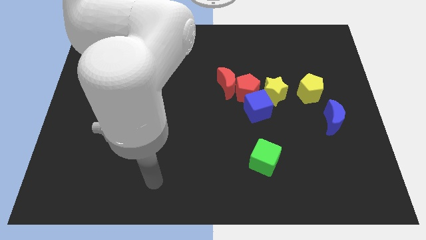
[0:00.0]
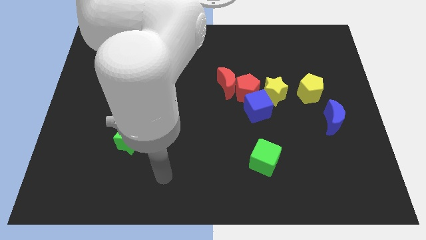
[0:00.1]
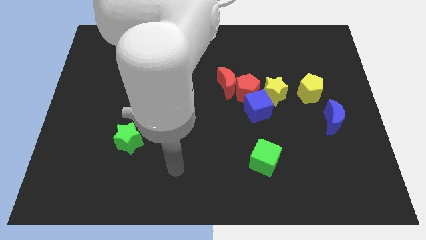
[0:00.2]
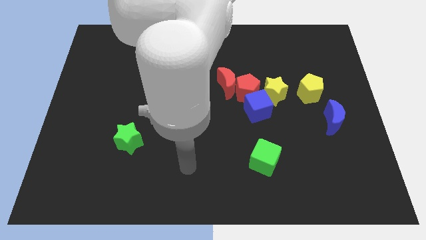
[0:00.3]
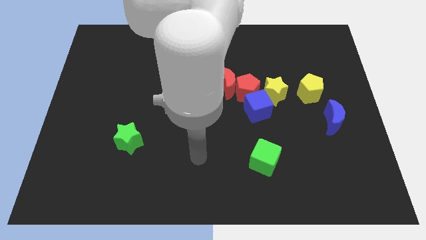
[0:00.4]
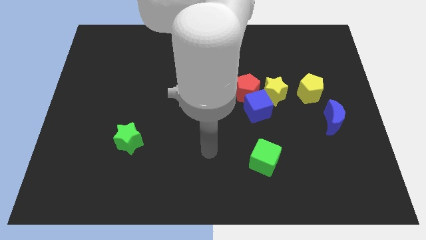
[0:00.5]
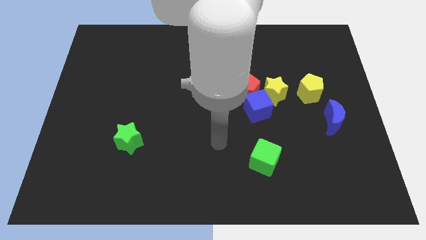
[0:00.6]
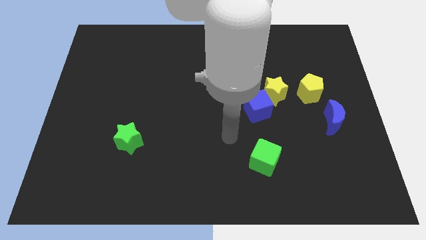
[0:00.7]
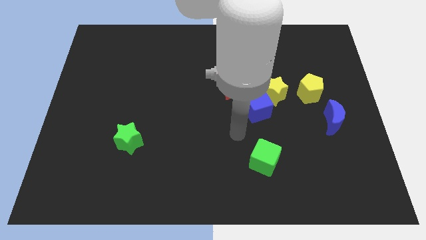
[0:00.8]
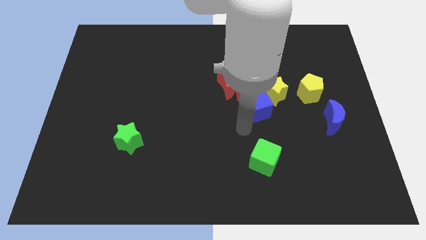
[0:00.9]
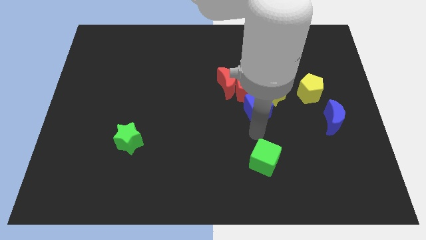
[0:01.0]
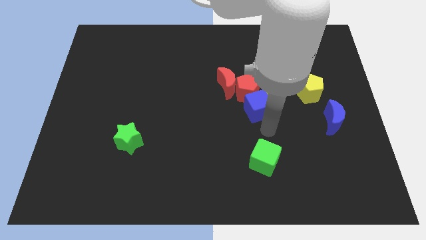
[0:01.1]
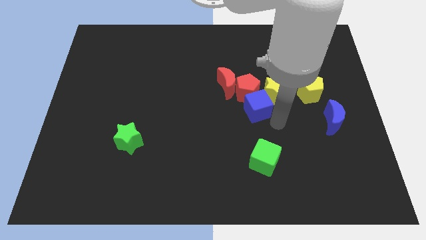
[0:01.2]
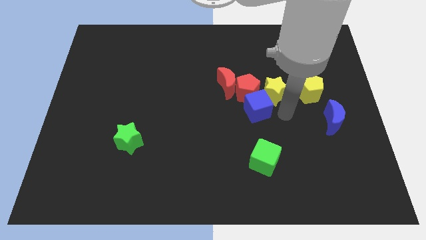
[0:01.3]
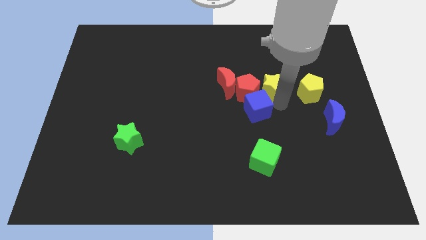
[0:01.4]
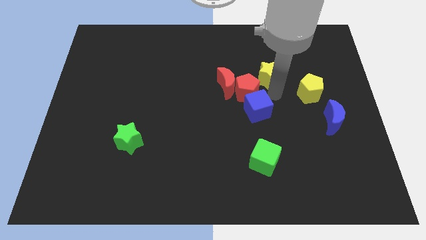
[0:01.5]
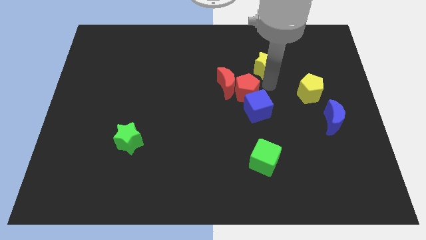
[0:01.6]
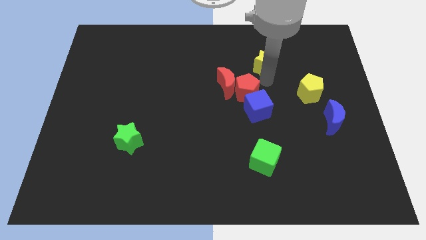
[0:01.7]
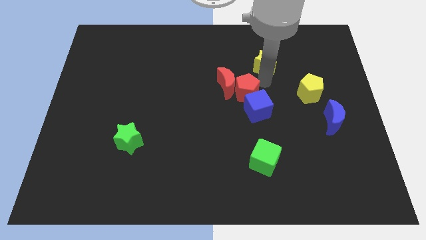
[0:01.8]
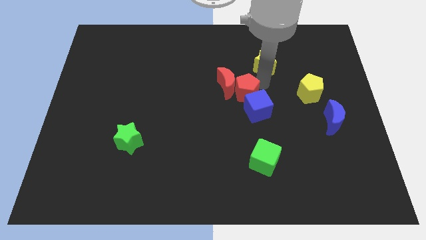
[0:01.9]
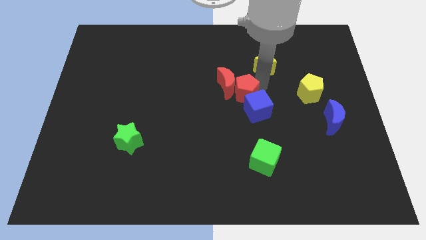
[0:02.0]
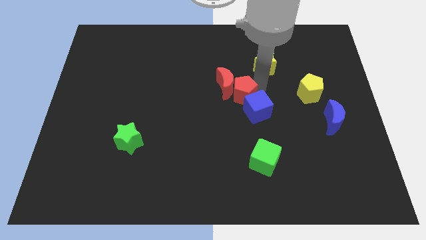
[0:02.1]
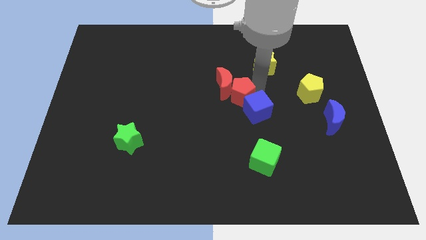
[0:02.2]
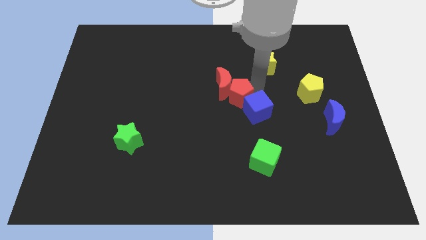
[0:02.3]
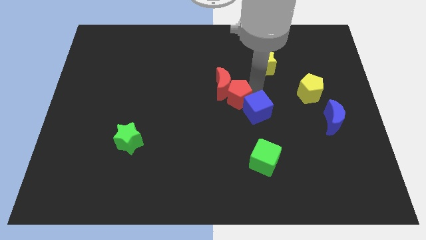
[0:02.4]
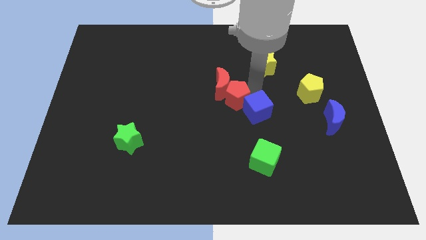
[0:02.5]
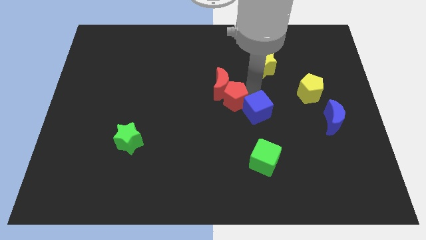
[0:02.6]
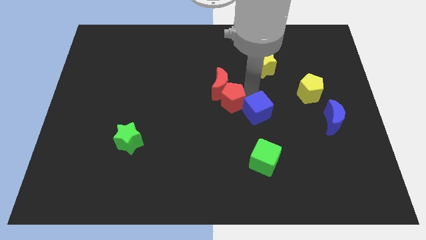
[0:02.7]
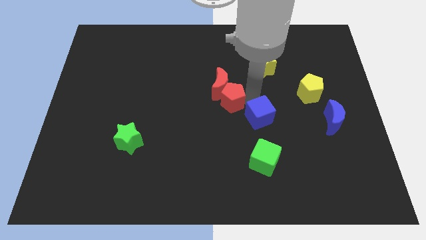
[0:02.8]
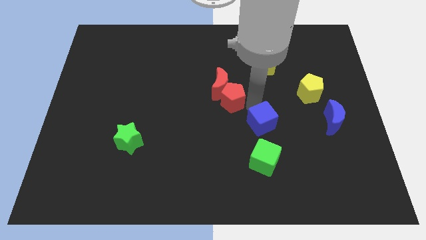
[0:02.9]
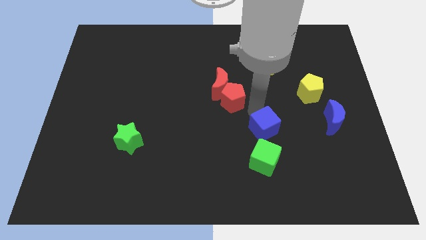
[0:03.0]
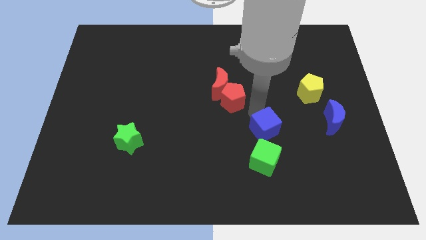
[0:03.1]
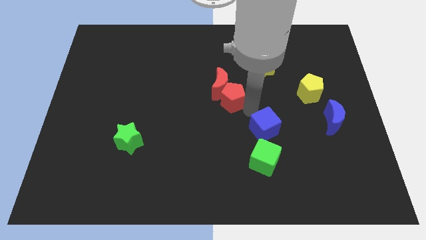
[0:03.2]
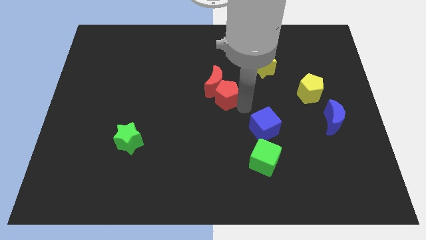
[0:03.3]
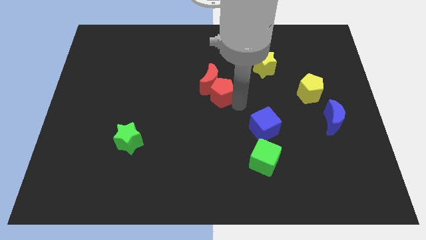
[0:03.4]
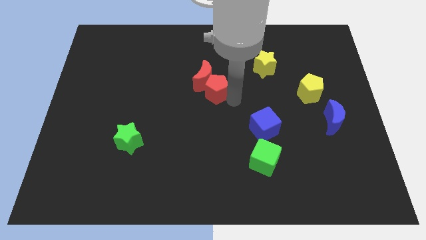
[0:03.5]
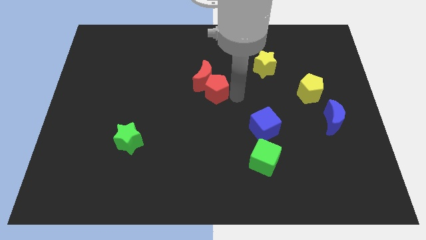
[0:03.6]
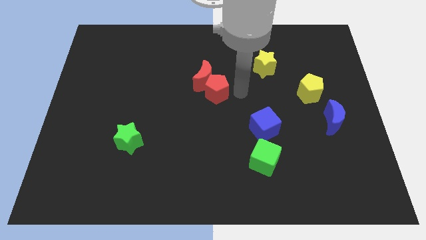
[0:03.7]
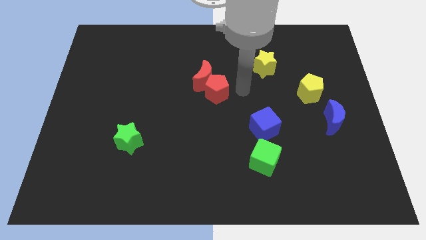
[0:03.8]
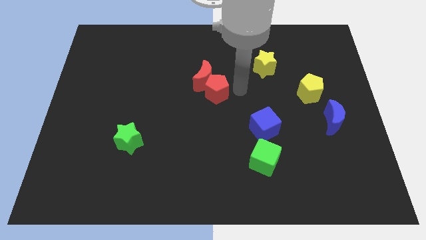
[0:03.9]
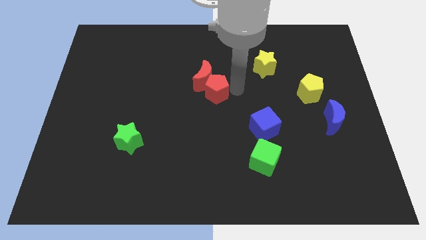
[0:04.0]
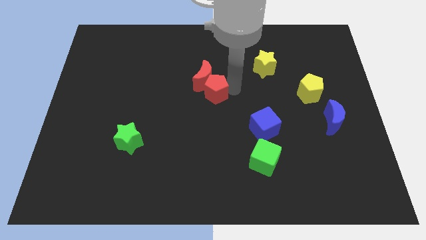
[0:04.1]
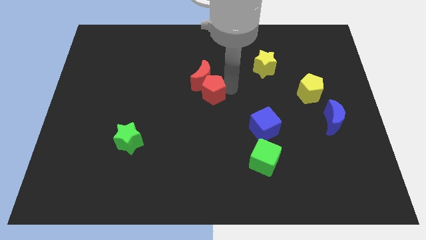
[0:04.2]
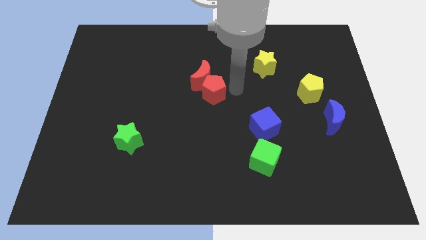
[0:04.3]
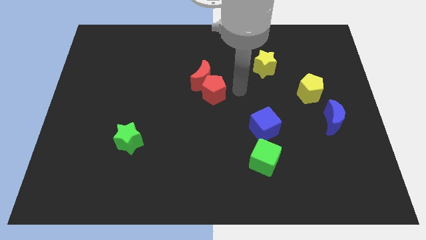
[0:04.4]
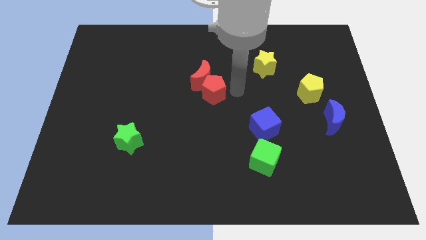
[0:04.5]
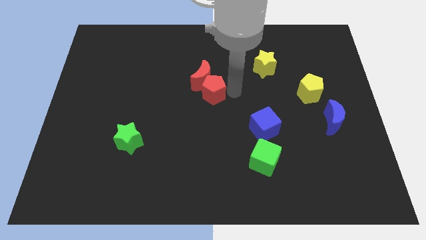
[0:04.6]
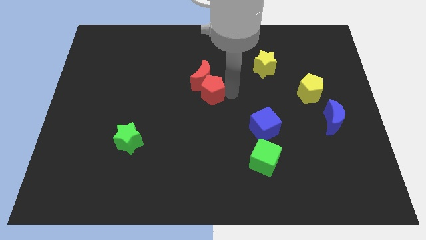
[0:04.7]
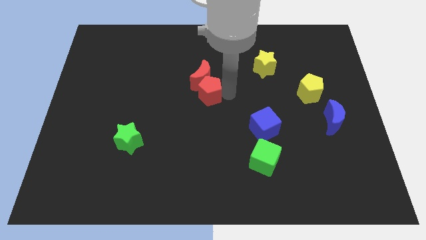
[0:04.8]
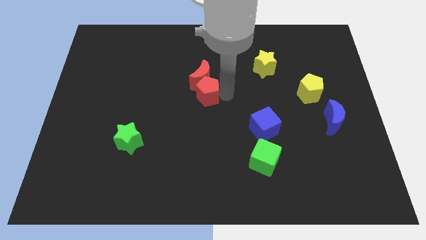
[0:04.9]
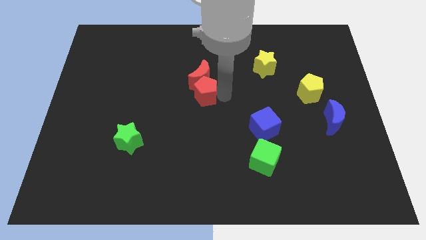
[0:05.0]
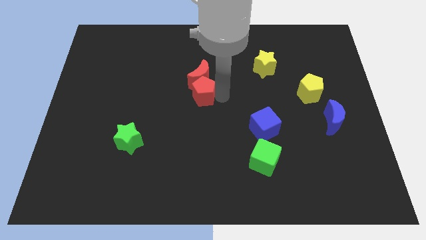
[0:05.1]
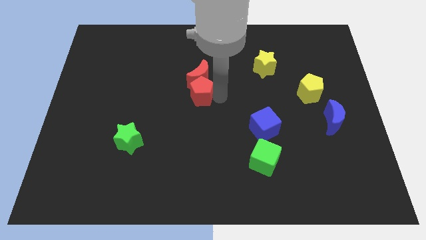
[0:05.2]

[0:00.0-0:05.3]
separate the red pentagon from the clump

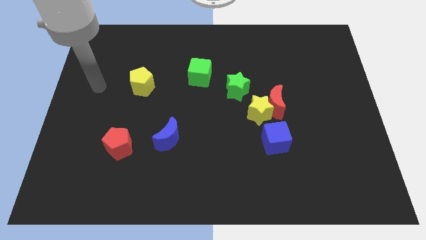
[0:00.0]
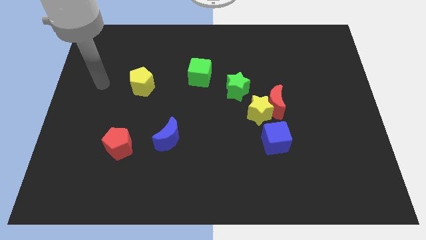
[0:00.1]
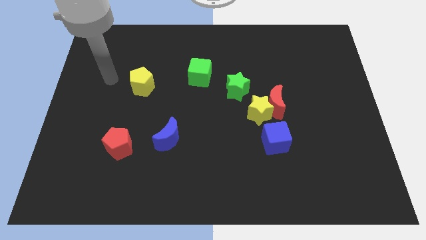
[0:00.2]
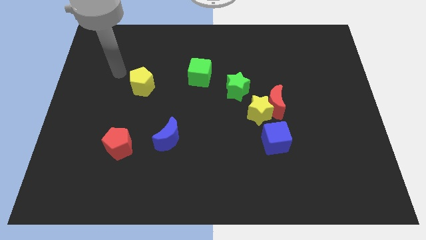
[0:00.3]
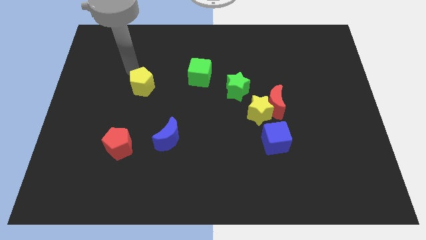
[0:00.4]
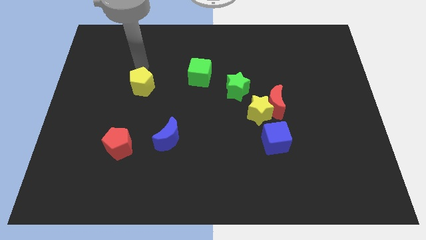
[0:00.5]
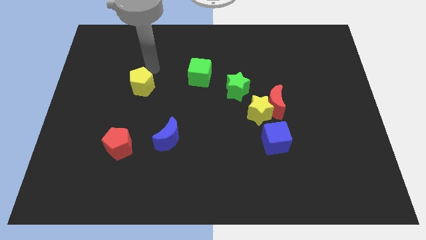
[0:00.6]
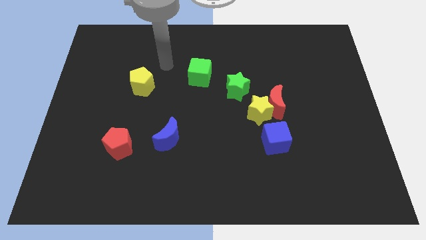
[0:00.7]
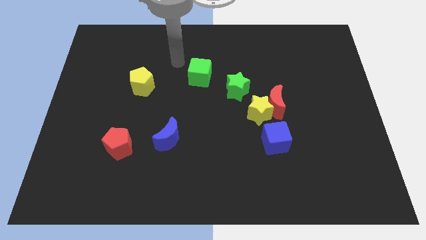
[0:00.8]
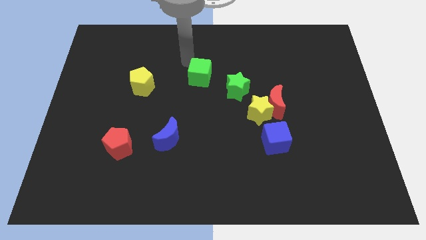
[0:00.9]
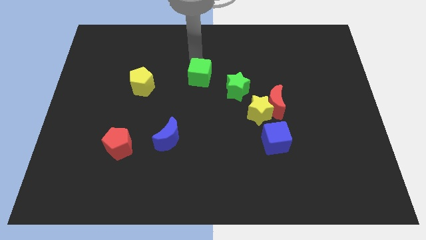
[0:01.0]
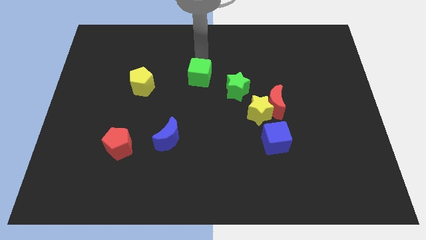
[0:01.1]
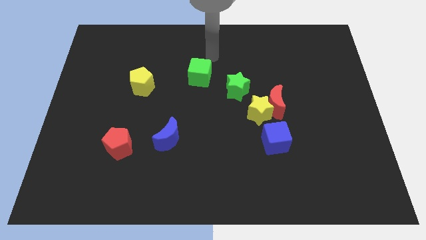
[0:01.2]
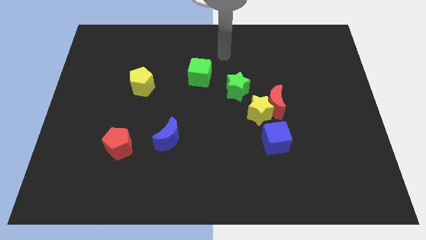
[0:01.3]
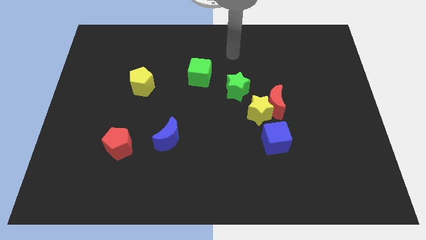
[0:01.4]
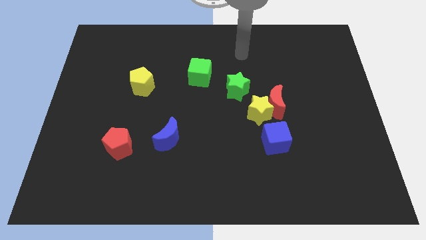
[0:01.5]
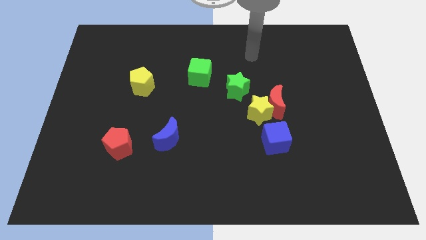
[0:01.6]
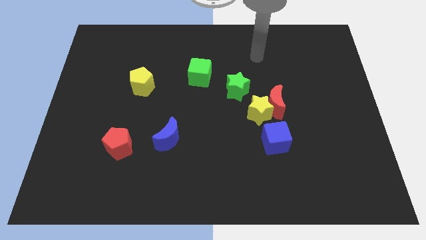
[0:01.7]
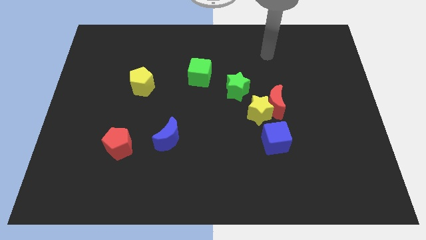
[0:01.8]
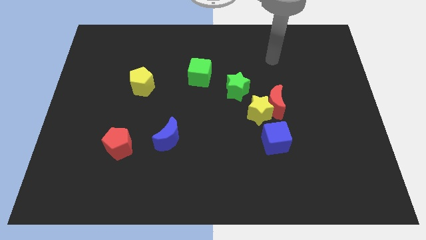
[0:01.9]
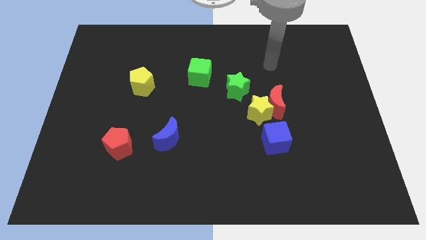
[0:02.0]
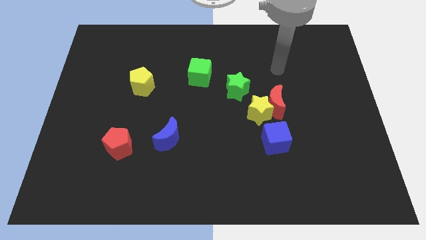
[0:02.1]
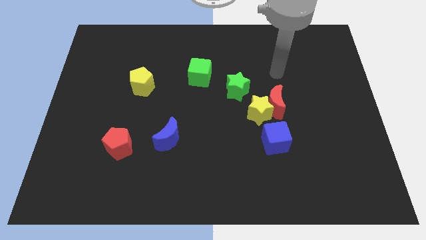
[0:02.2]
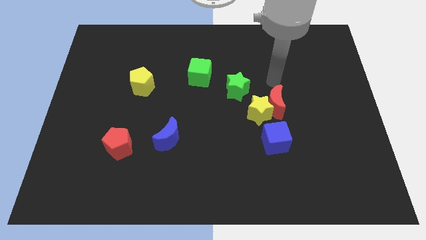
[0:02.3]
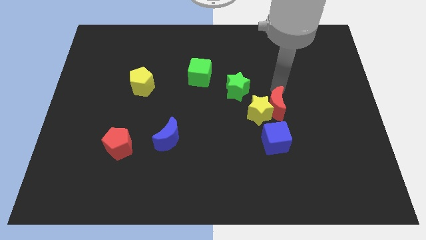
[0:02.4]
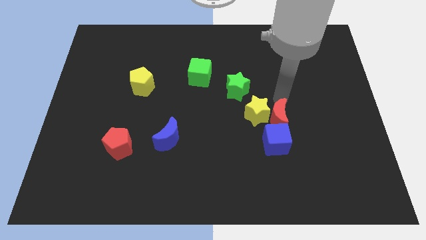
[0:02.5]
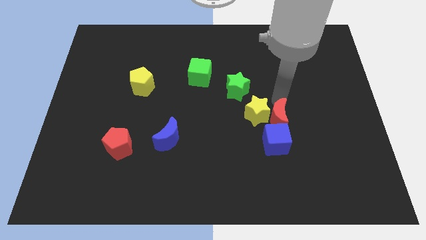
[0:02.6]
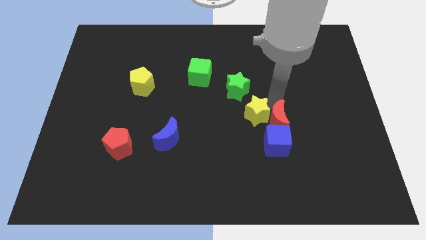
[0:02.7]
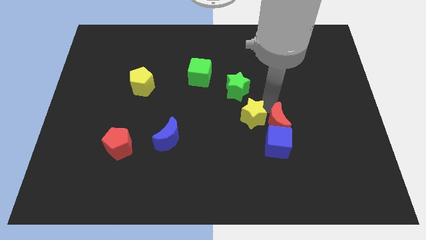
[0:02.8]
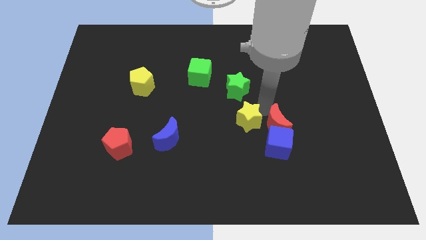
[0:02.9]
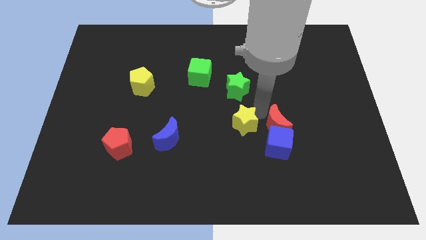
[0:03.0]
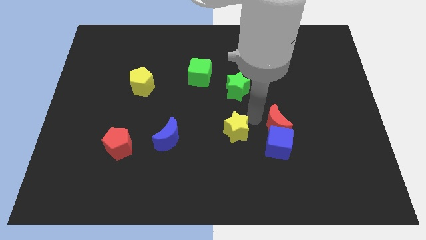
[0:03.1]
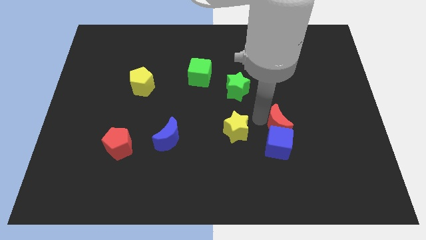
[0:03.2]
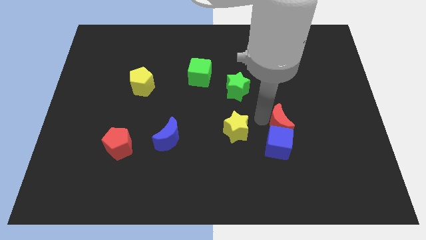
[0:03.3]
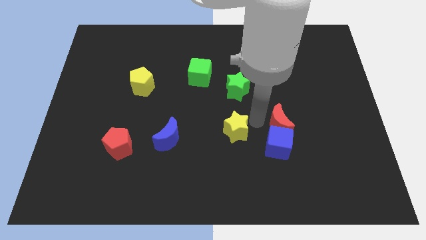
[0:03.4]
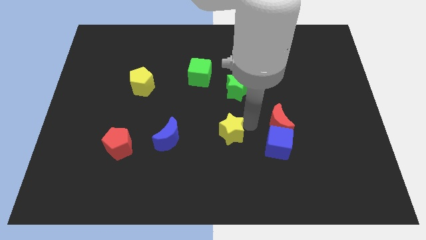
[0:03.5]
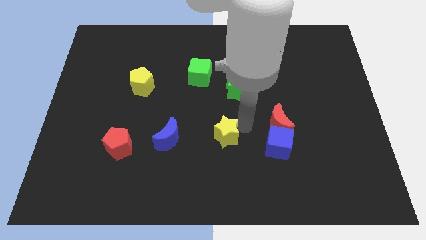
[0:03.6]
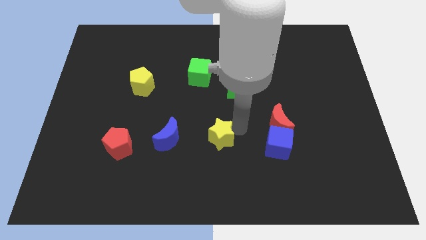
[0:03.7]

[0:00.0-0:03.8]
pull the yellow star apart from the group of blocks

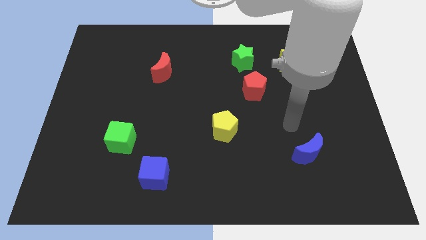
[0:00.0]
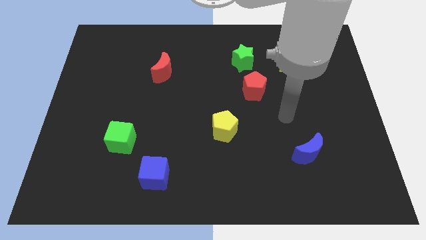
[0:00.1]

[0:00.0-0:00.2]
pull the red pentagon apart from the green star

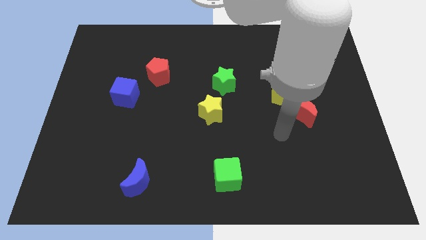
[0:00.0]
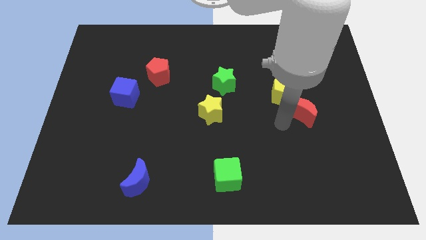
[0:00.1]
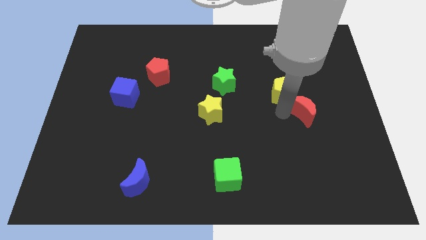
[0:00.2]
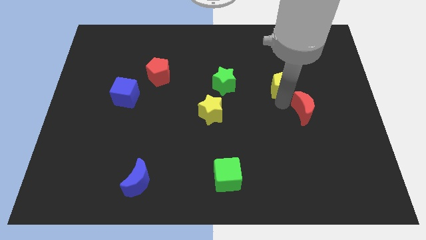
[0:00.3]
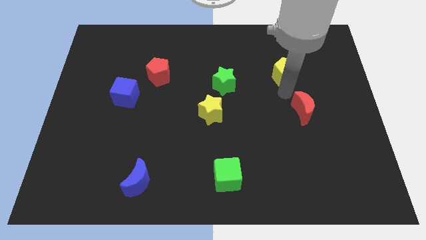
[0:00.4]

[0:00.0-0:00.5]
move the red moon away from the yellow pentagon
